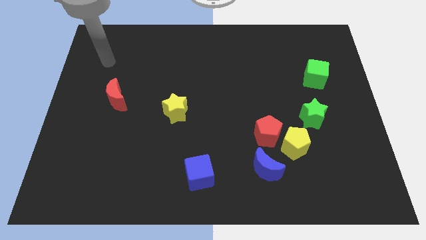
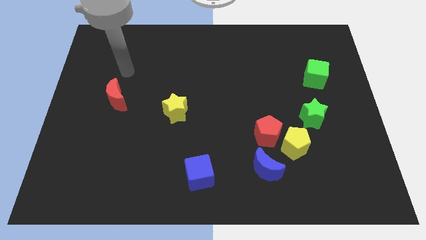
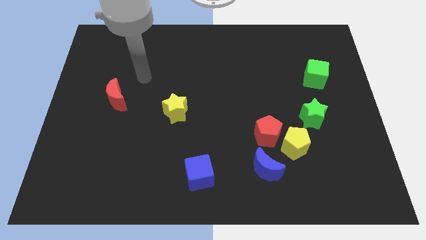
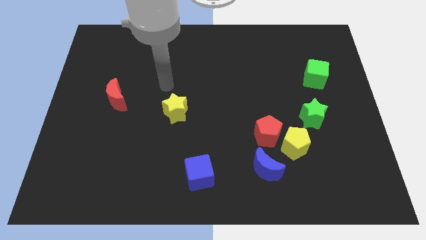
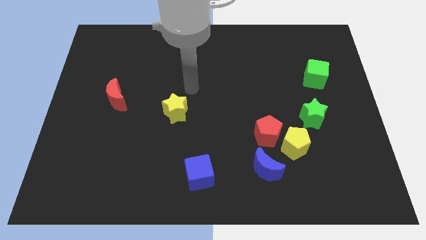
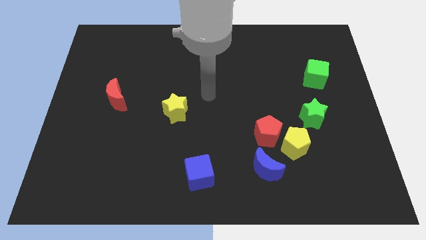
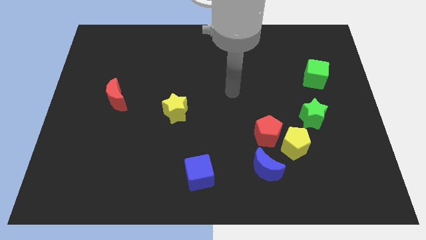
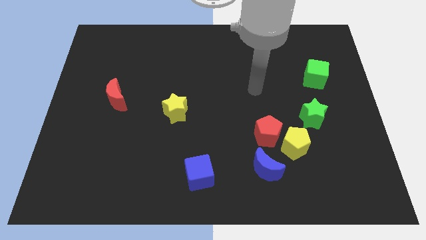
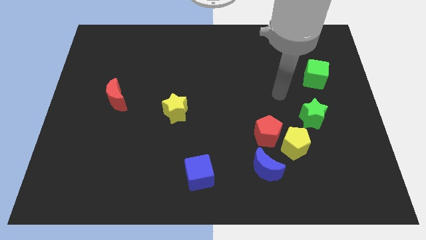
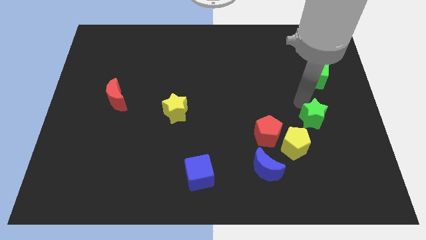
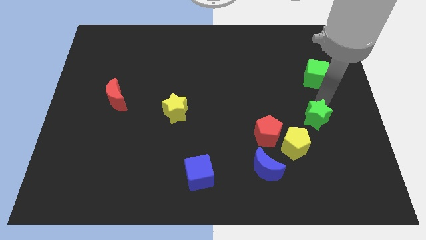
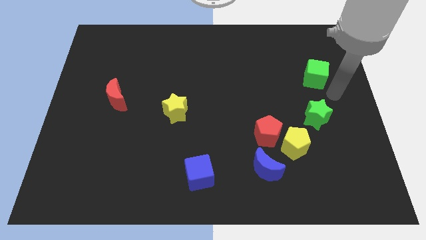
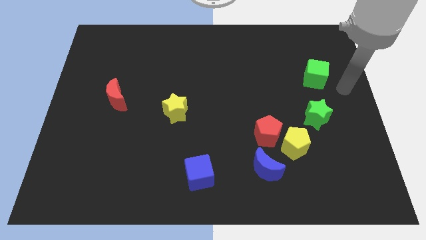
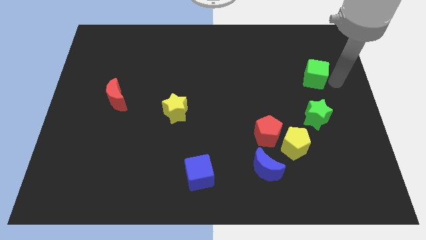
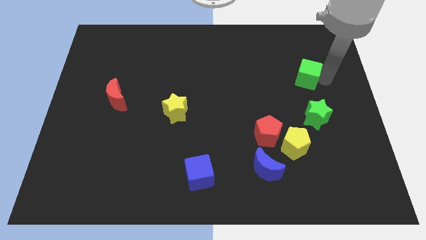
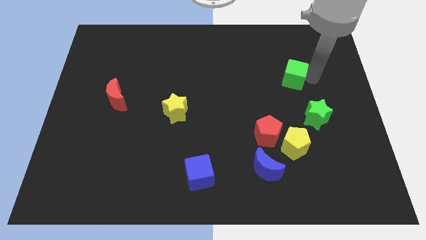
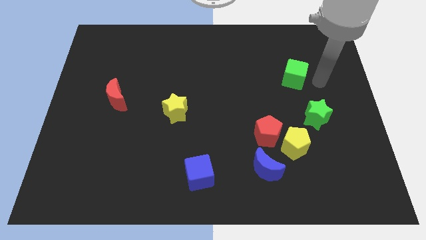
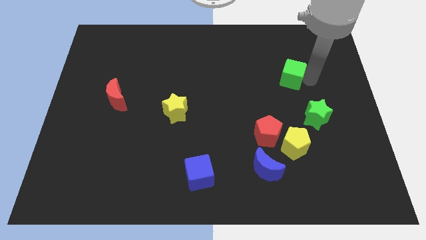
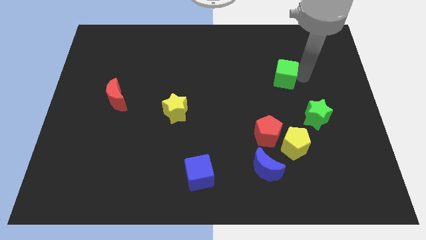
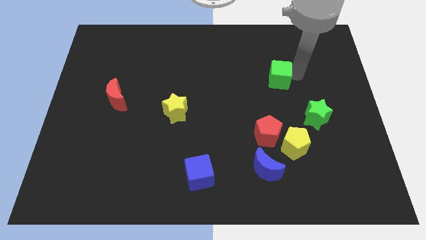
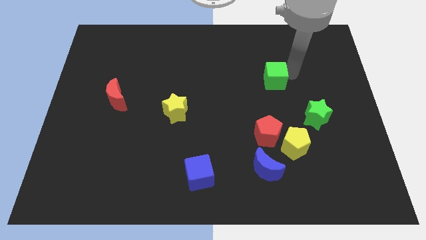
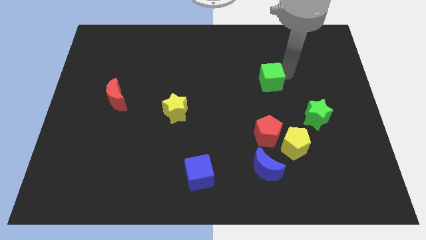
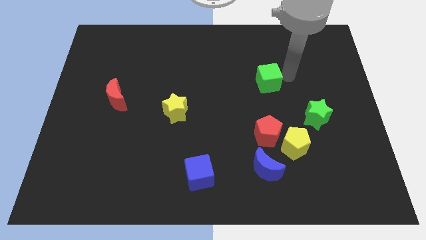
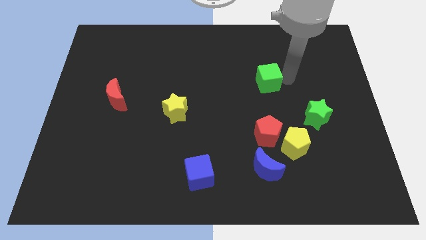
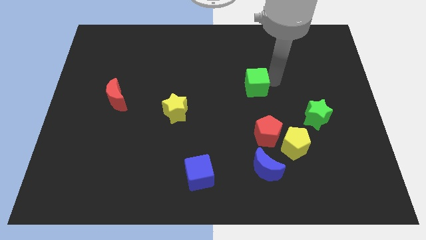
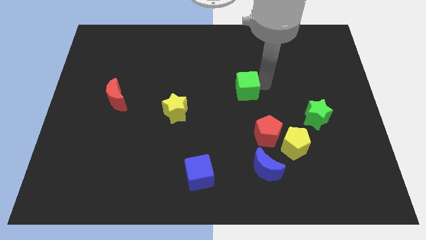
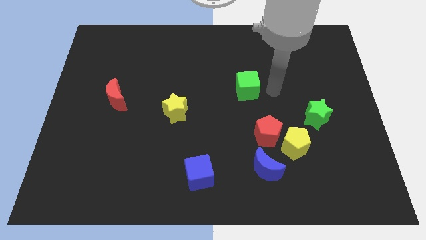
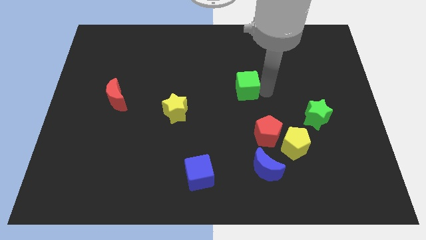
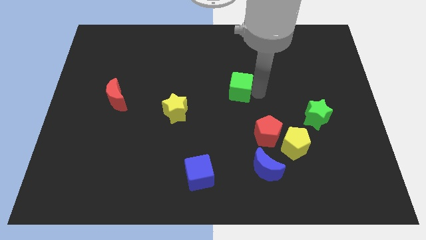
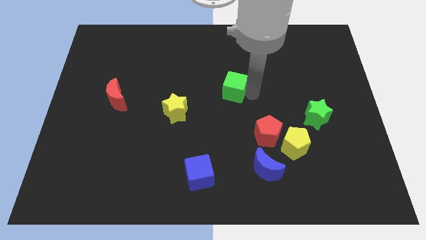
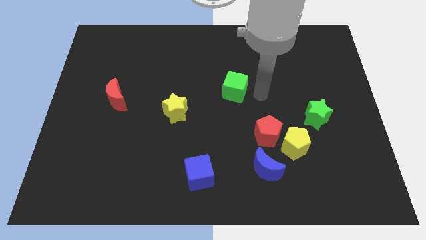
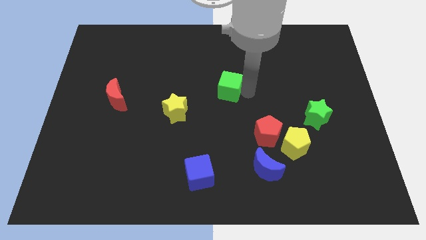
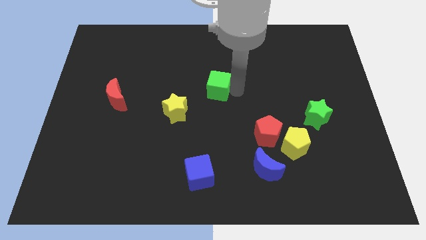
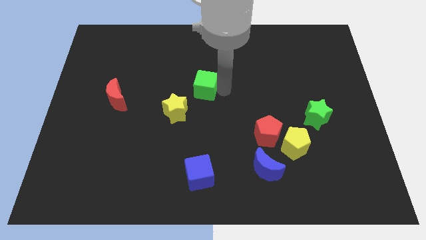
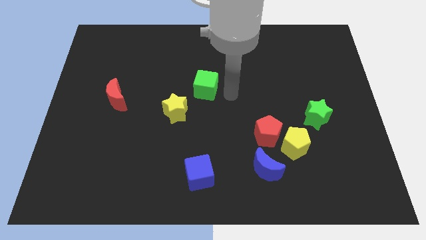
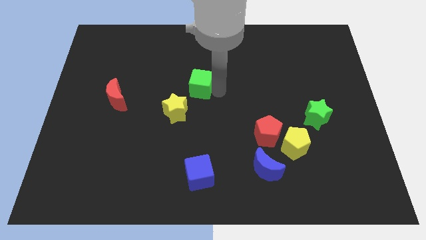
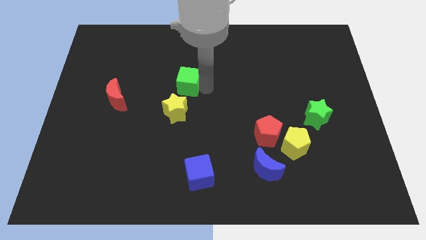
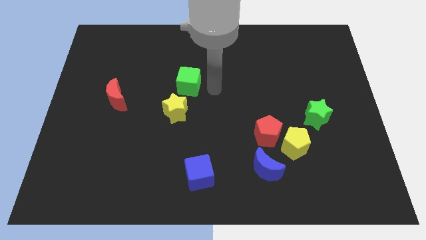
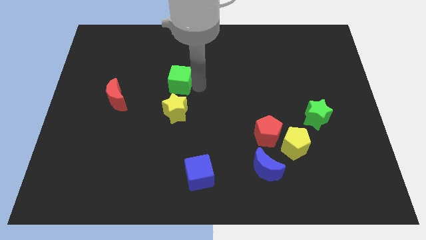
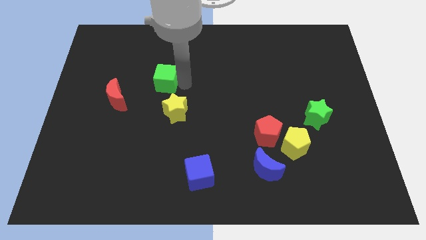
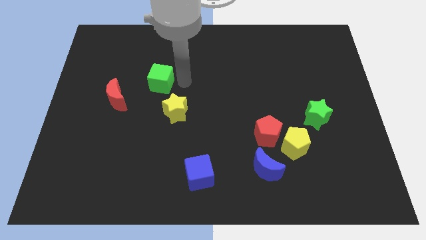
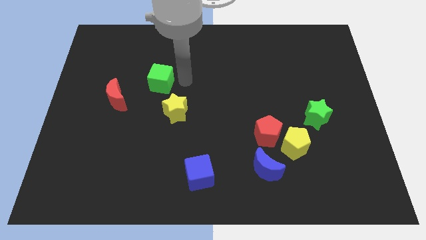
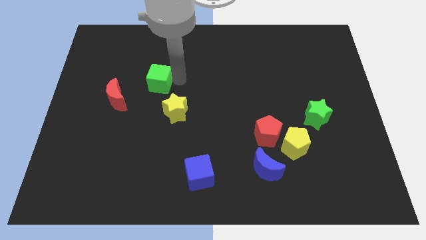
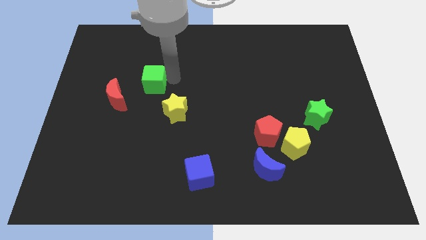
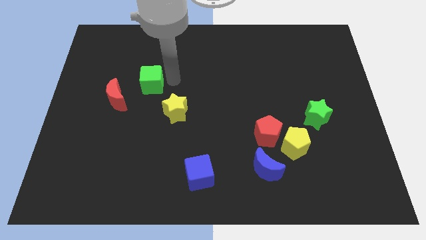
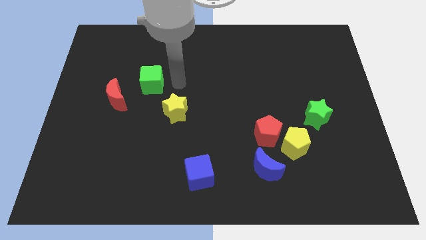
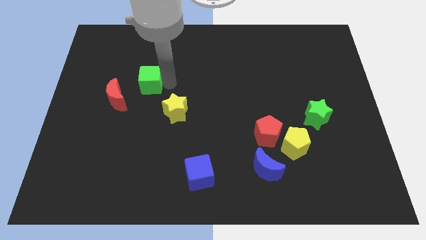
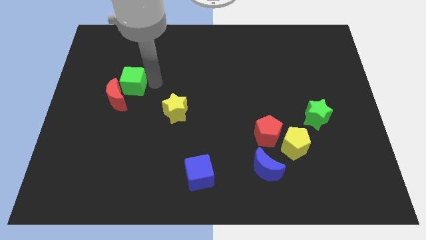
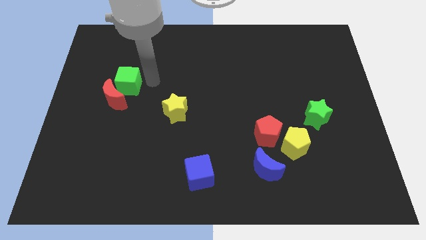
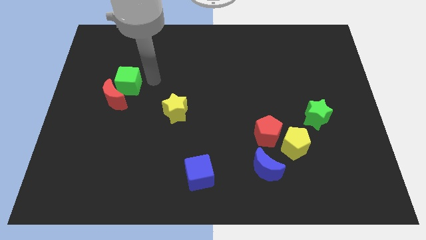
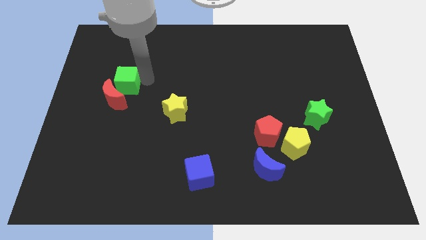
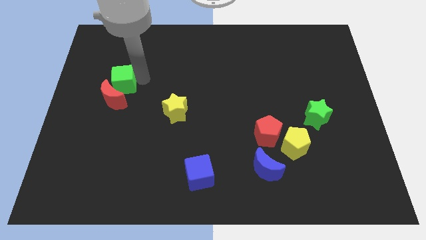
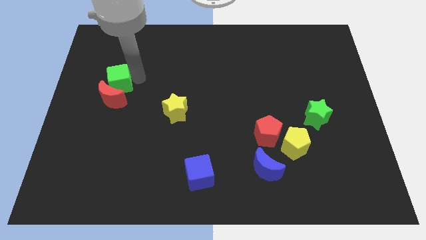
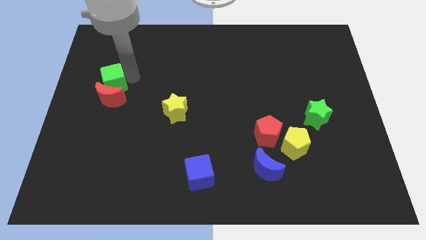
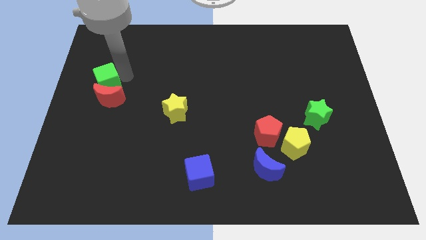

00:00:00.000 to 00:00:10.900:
put the green cube to the left side

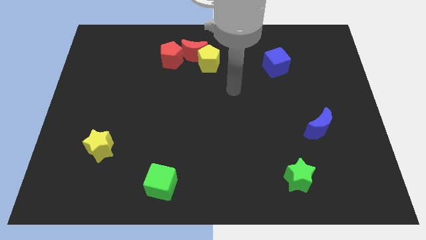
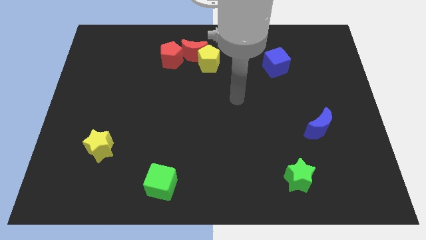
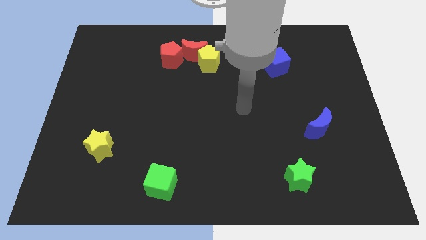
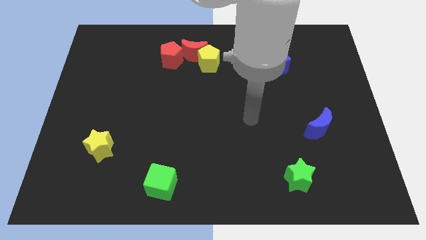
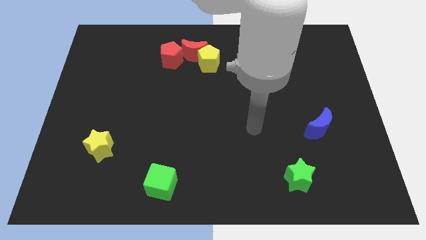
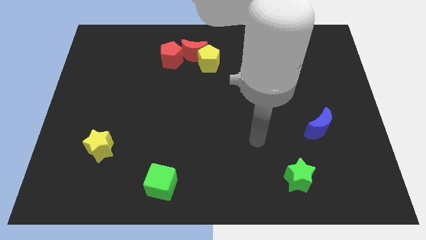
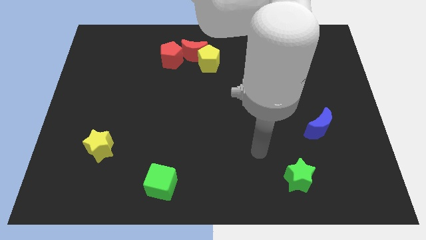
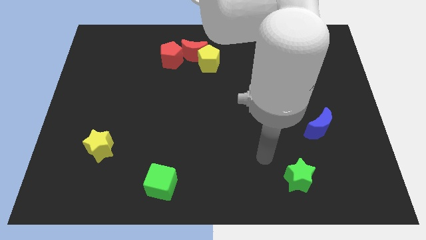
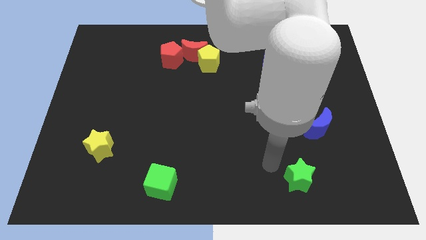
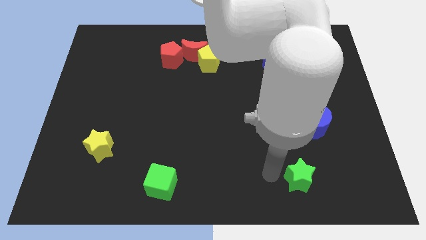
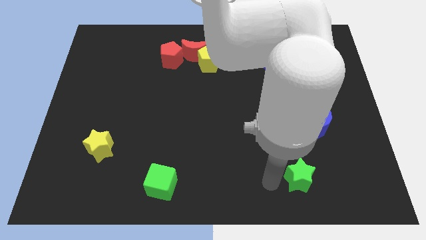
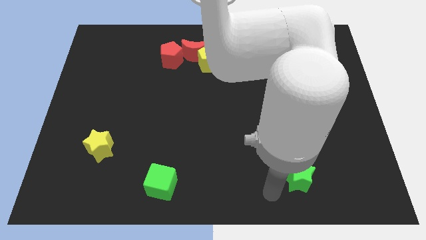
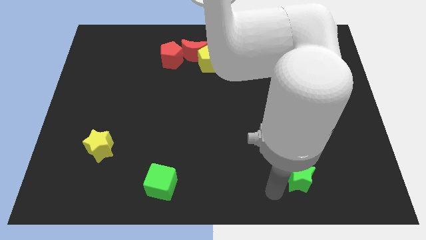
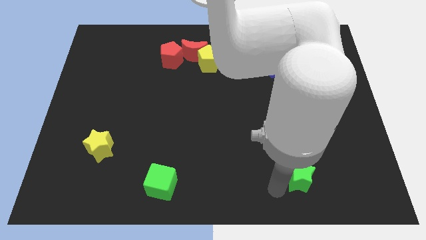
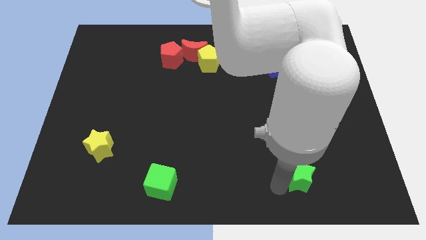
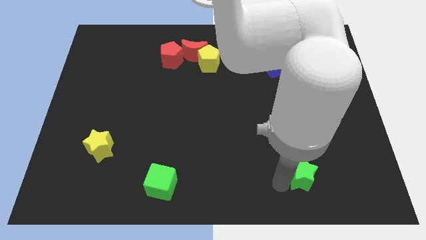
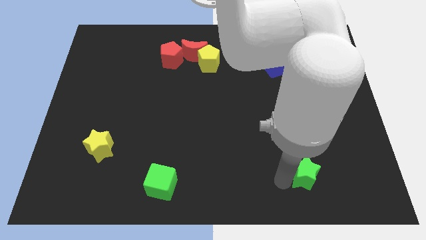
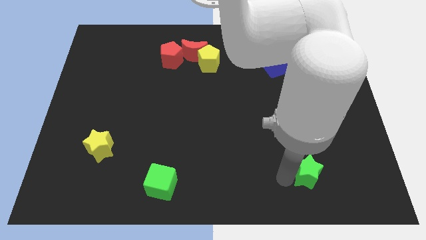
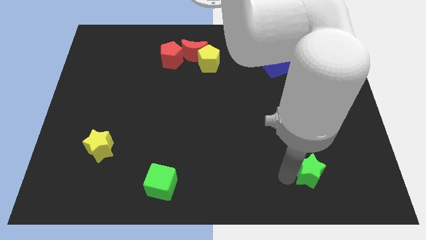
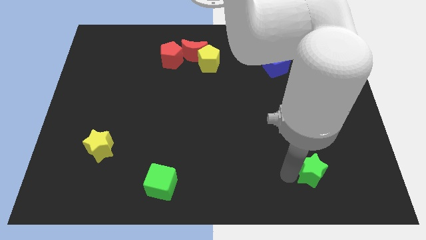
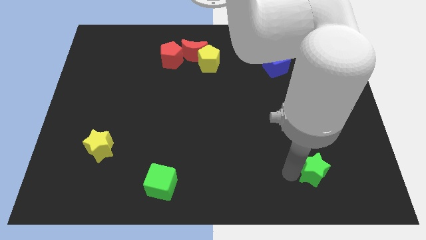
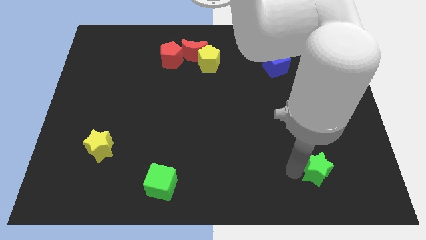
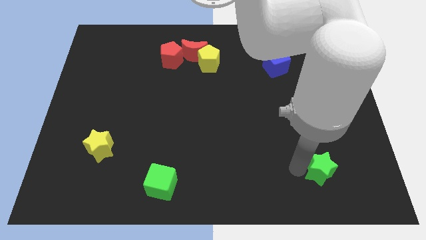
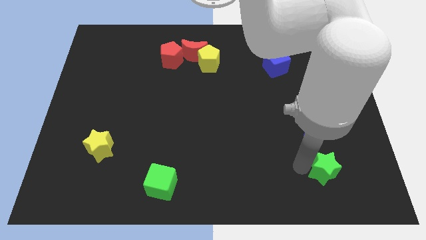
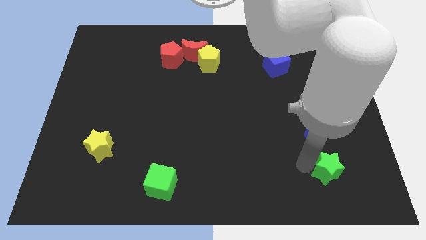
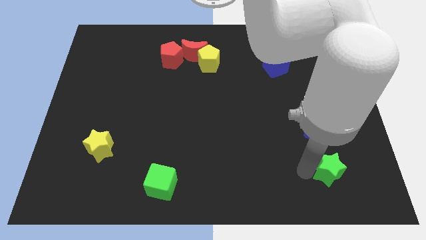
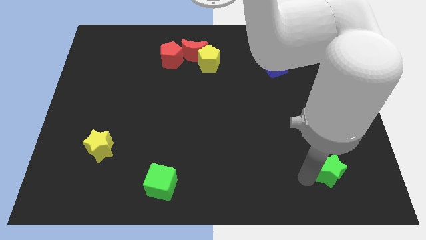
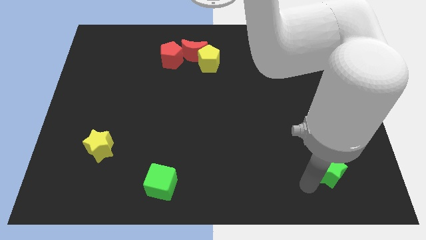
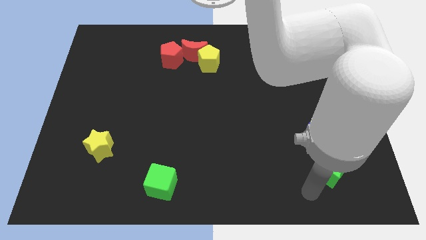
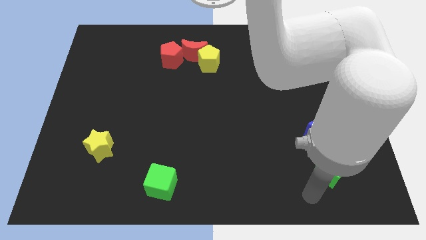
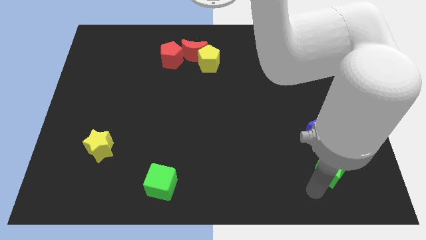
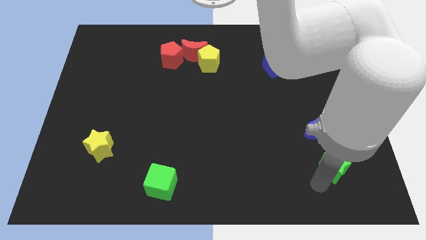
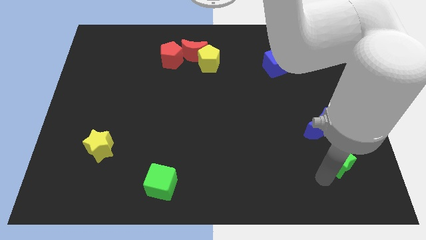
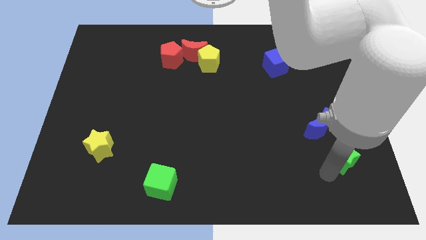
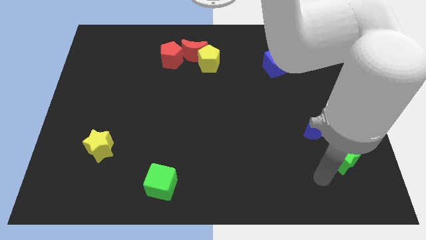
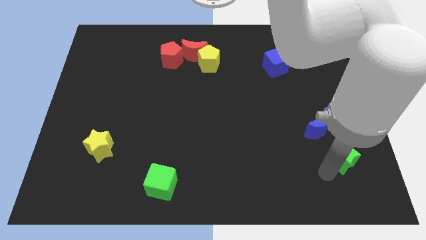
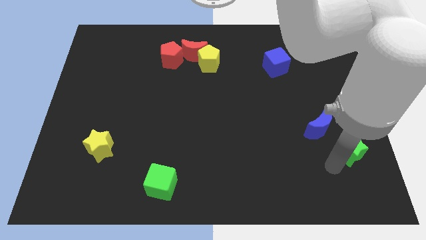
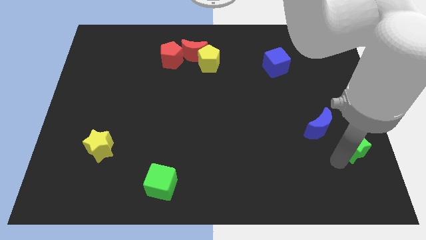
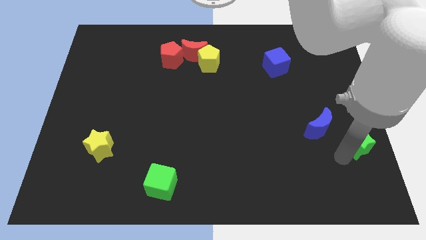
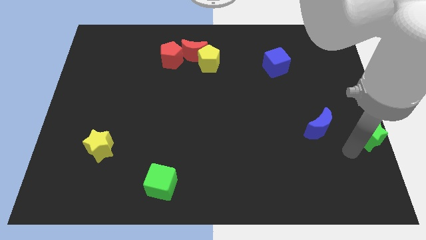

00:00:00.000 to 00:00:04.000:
slide the green star to the center right
